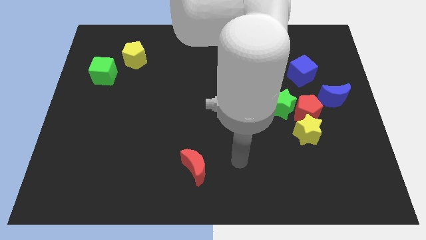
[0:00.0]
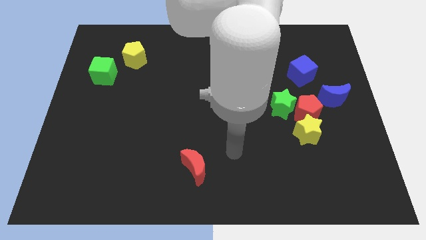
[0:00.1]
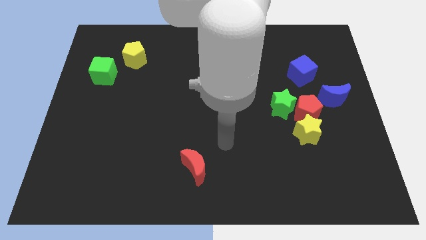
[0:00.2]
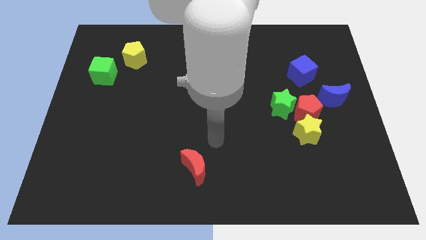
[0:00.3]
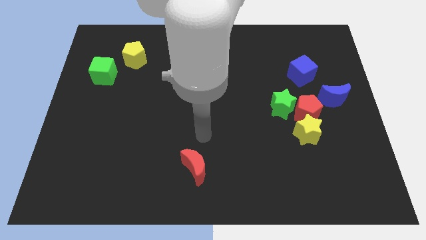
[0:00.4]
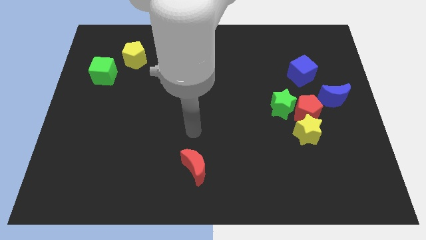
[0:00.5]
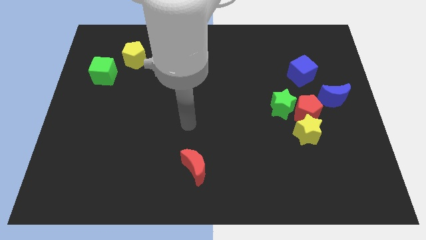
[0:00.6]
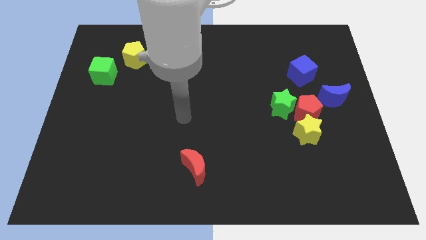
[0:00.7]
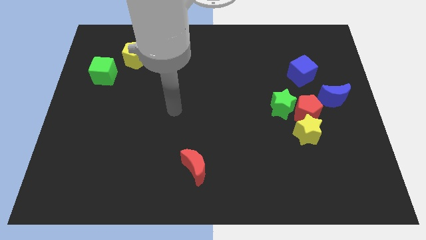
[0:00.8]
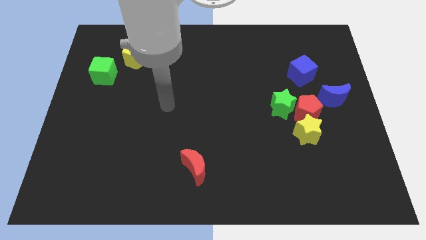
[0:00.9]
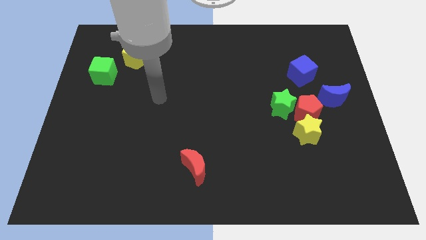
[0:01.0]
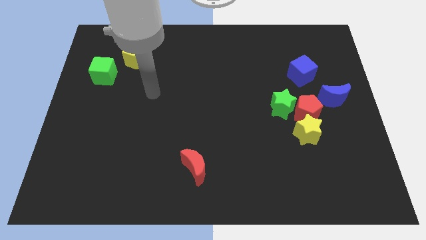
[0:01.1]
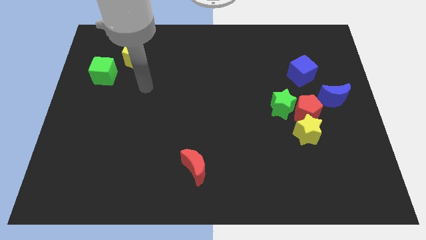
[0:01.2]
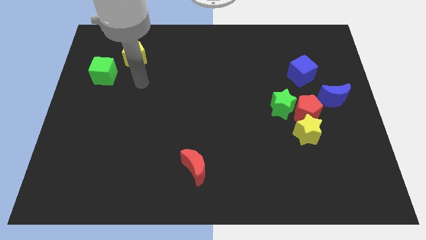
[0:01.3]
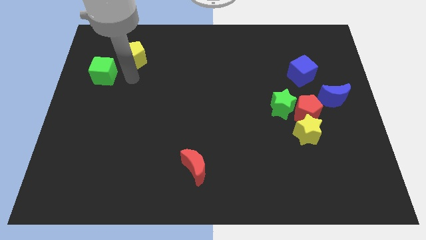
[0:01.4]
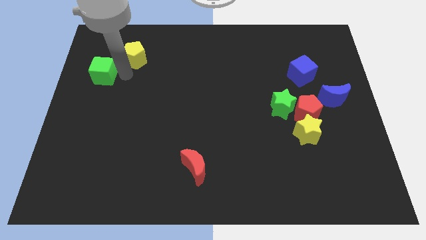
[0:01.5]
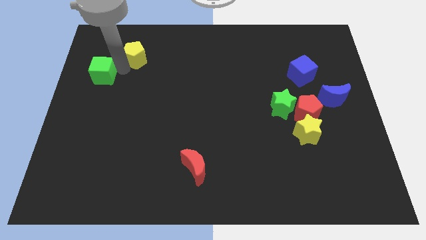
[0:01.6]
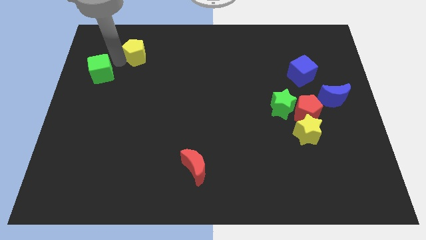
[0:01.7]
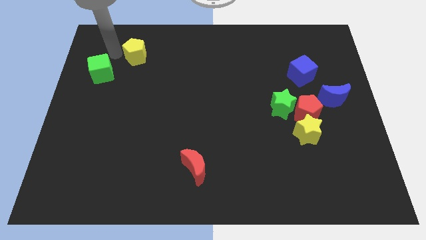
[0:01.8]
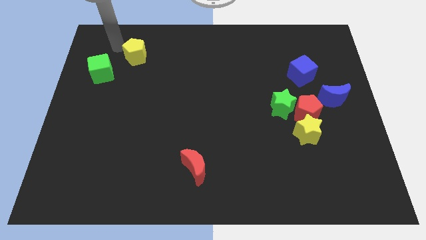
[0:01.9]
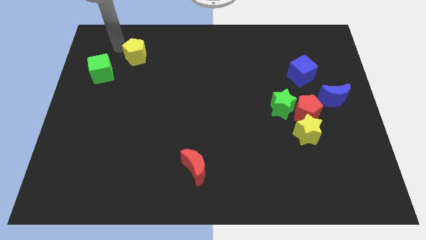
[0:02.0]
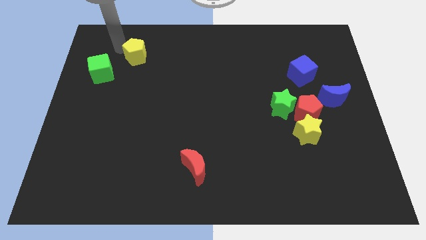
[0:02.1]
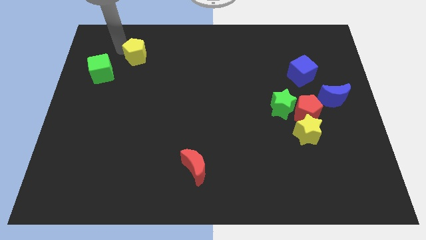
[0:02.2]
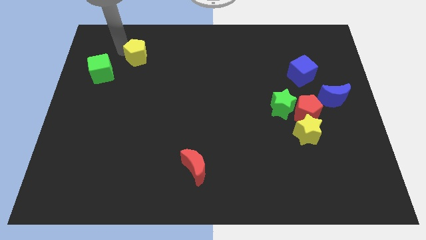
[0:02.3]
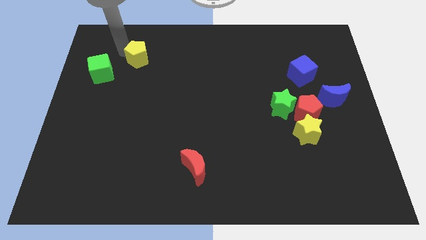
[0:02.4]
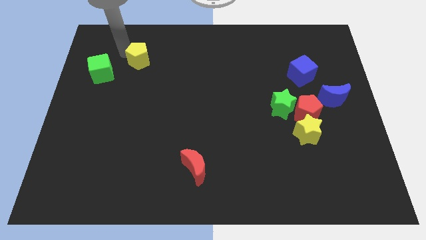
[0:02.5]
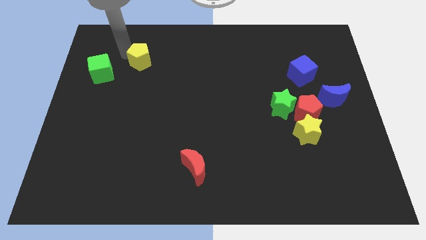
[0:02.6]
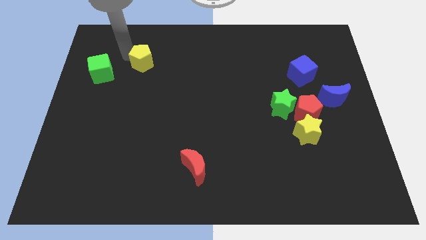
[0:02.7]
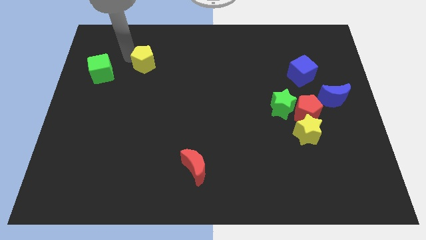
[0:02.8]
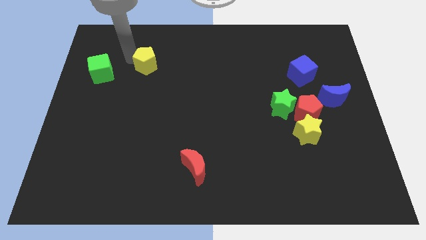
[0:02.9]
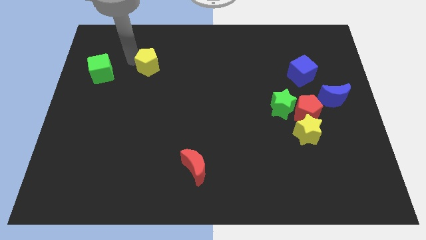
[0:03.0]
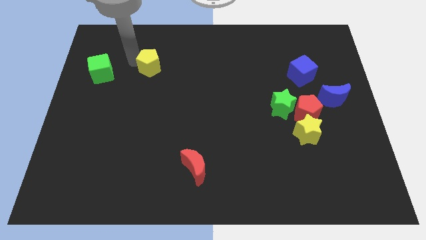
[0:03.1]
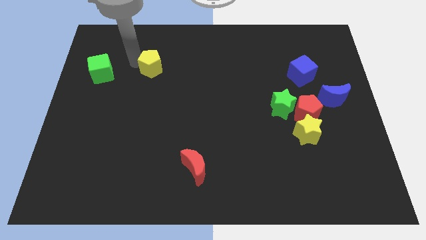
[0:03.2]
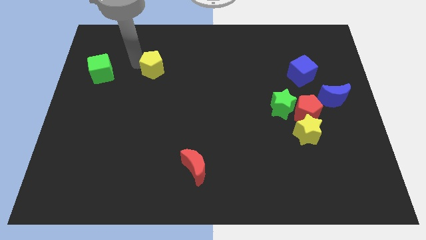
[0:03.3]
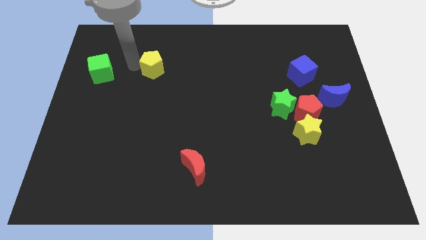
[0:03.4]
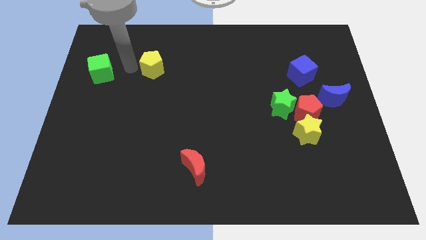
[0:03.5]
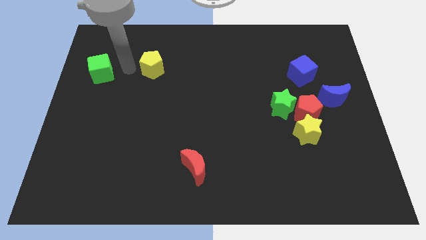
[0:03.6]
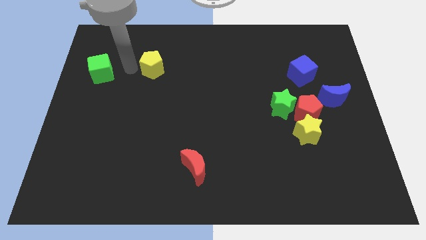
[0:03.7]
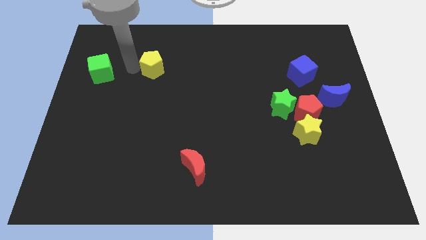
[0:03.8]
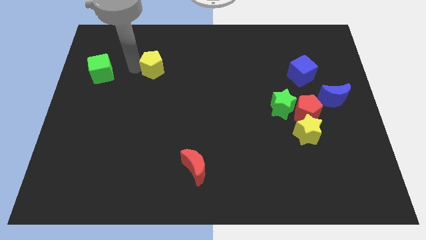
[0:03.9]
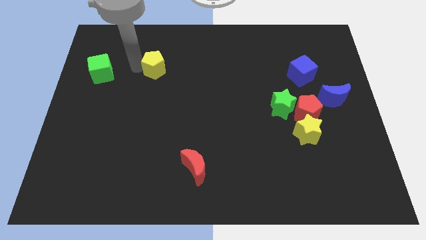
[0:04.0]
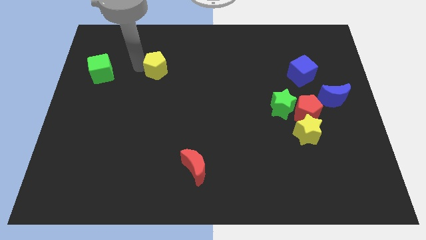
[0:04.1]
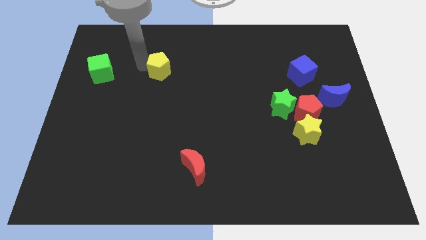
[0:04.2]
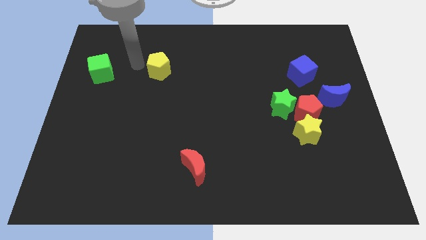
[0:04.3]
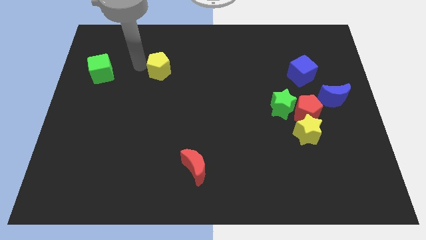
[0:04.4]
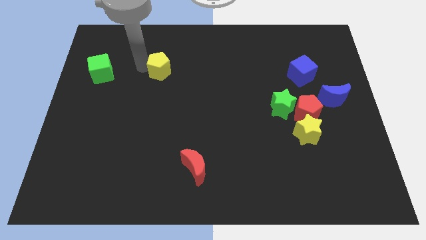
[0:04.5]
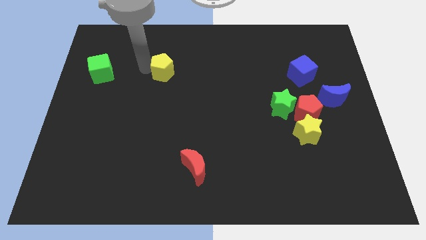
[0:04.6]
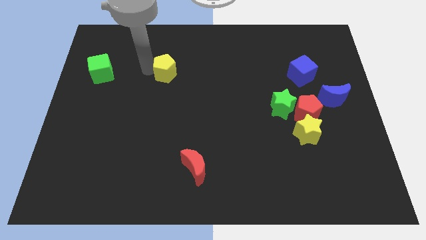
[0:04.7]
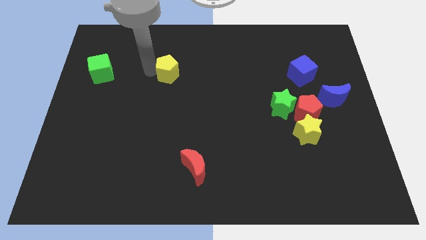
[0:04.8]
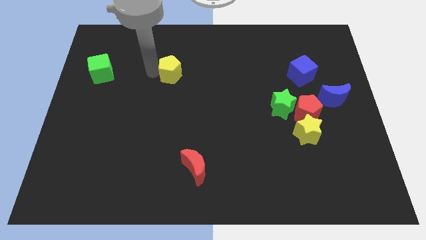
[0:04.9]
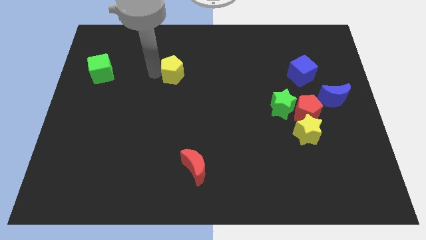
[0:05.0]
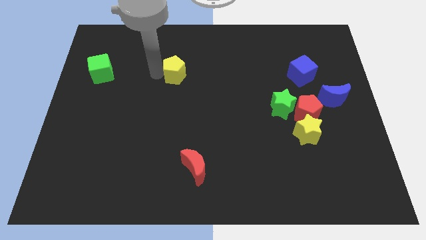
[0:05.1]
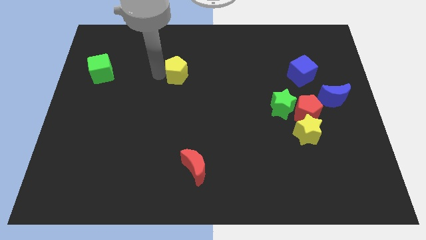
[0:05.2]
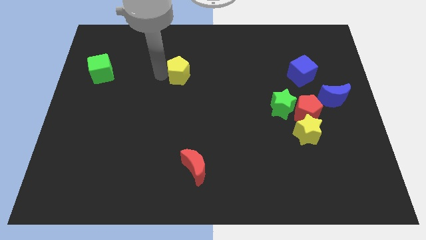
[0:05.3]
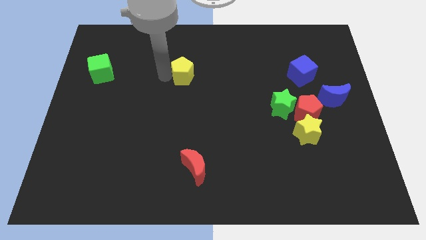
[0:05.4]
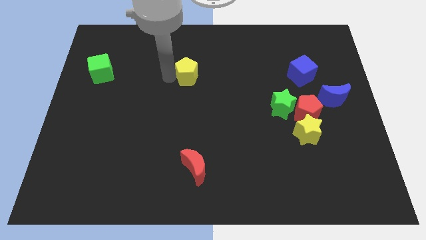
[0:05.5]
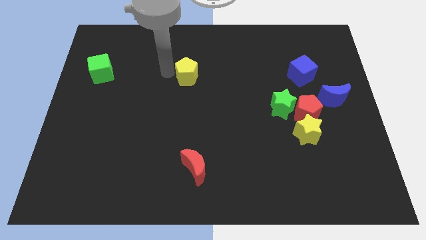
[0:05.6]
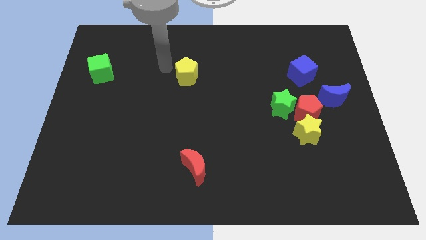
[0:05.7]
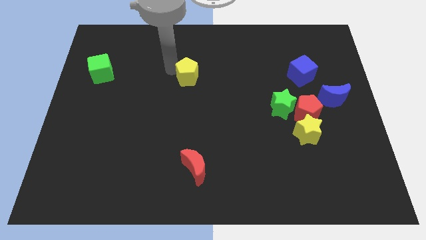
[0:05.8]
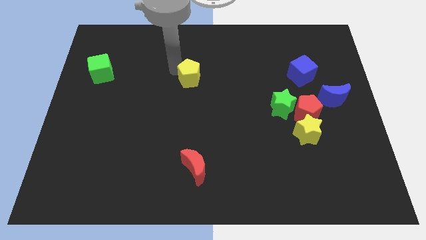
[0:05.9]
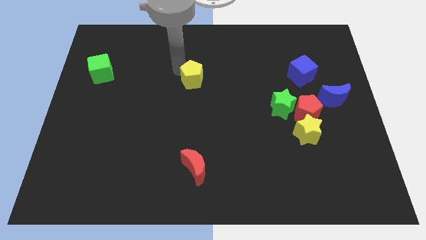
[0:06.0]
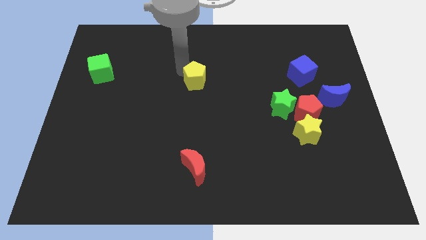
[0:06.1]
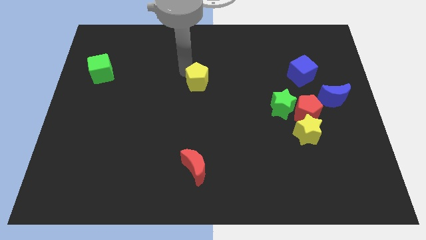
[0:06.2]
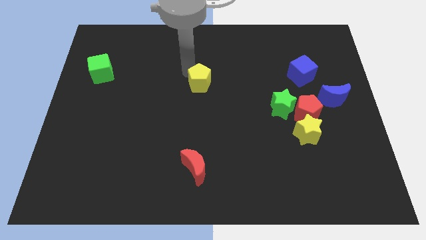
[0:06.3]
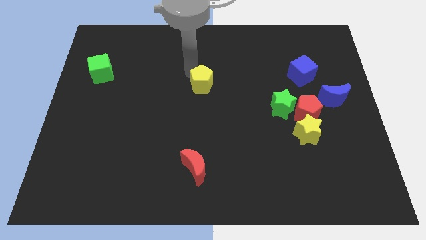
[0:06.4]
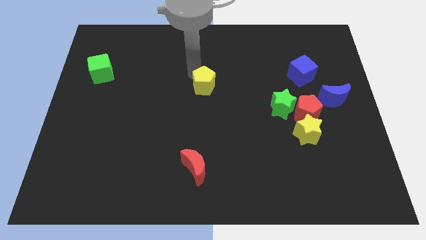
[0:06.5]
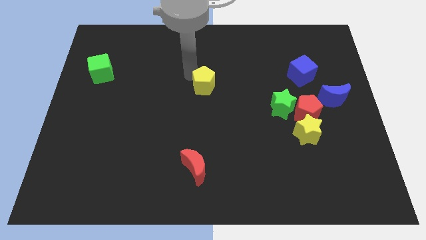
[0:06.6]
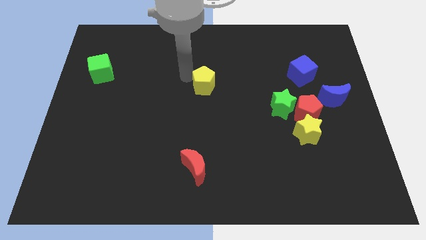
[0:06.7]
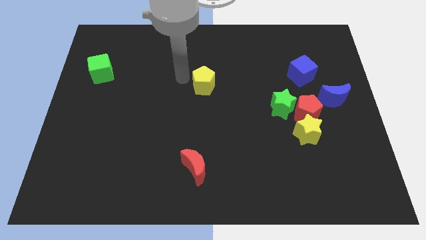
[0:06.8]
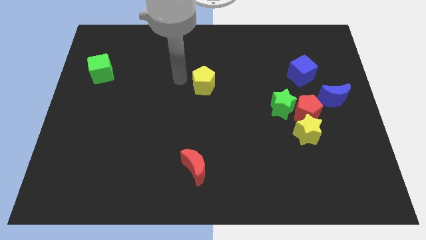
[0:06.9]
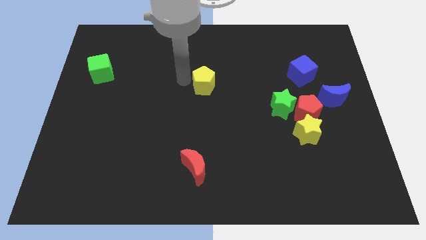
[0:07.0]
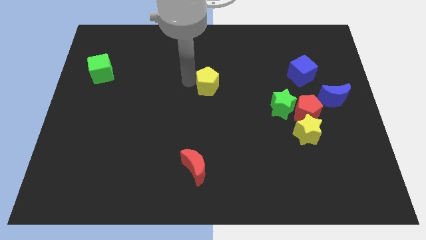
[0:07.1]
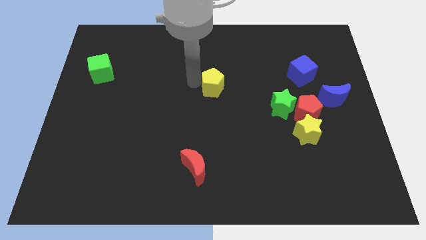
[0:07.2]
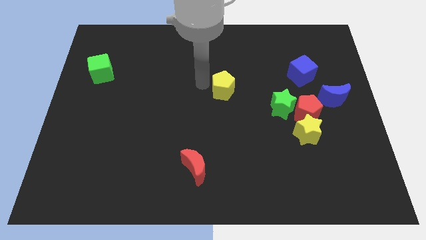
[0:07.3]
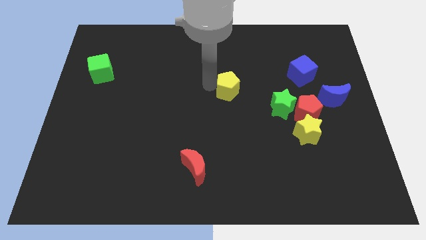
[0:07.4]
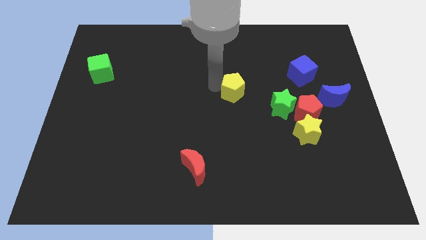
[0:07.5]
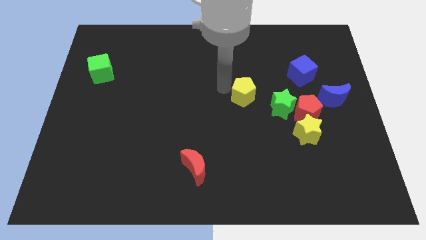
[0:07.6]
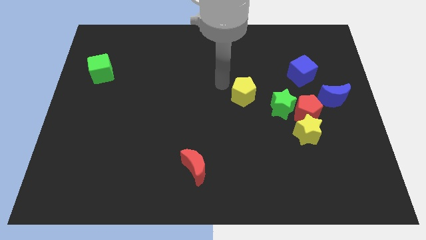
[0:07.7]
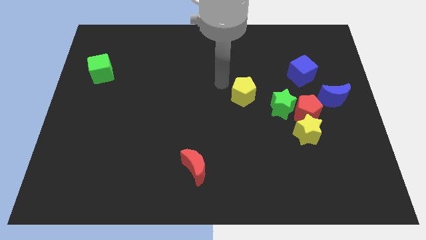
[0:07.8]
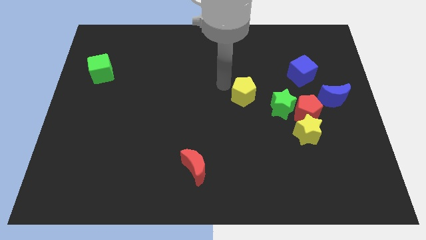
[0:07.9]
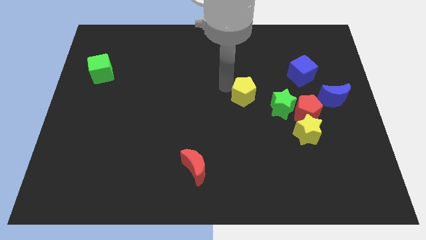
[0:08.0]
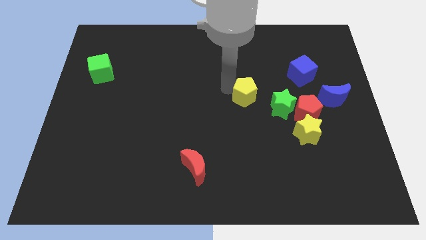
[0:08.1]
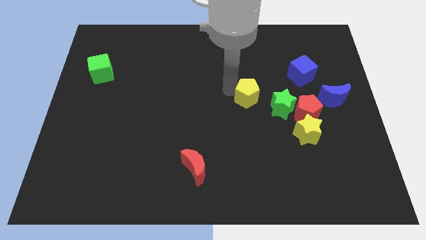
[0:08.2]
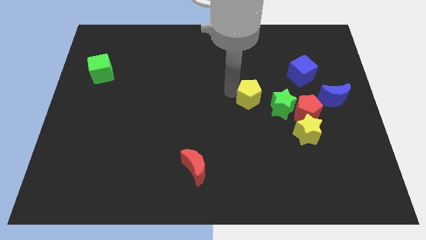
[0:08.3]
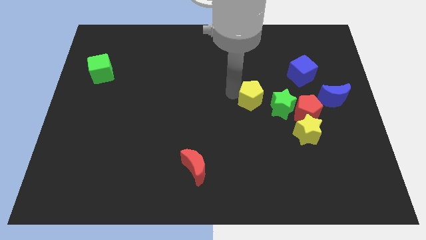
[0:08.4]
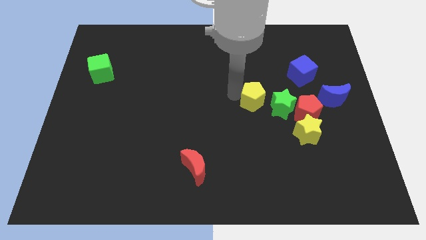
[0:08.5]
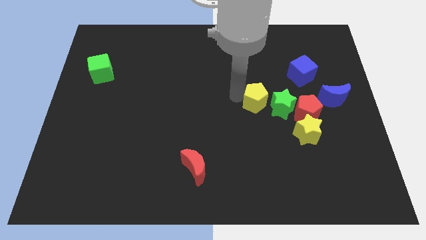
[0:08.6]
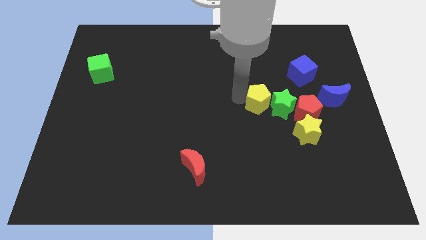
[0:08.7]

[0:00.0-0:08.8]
put the yellow pentagon to the green star
